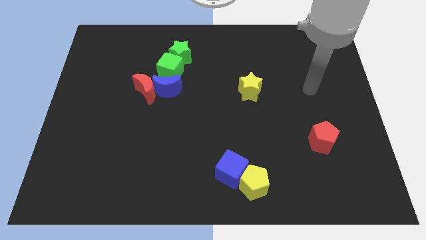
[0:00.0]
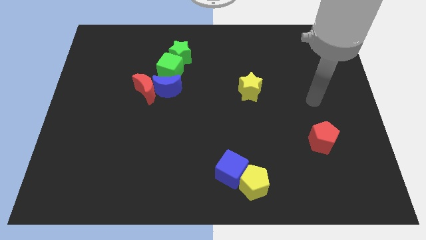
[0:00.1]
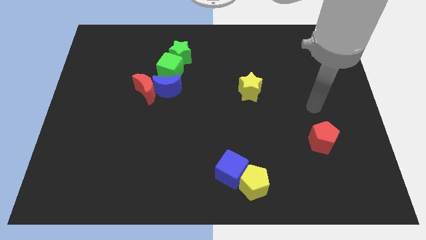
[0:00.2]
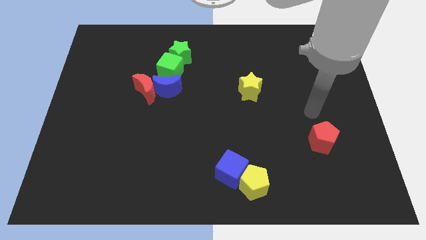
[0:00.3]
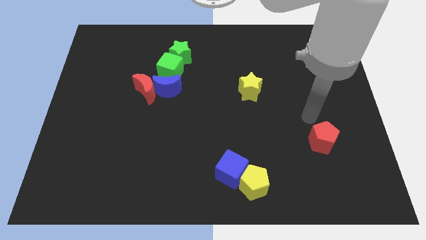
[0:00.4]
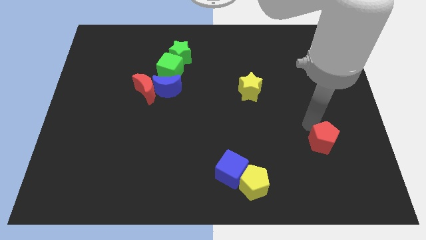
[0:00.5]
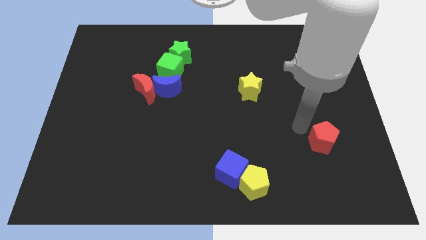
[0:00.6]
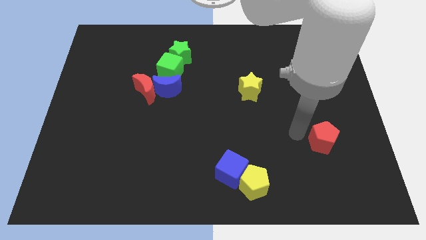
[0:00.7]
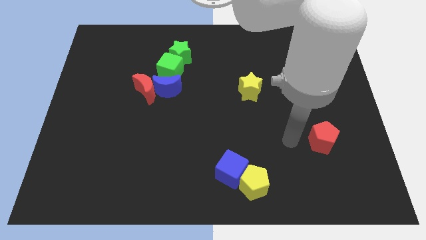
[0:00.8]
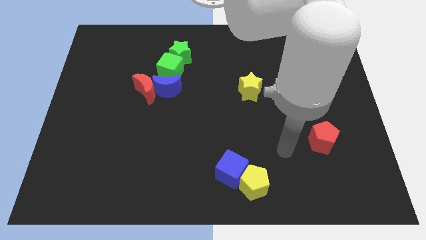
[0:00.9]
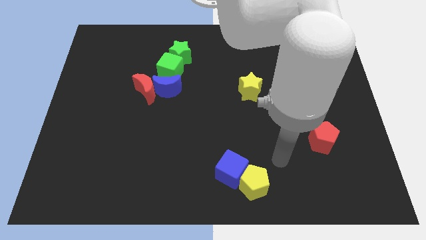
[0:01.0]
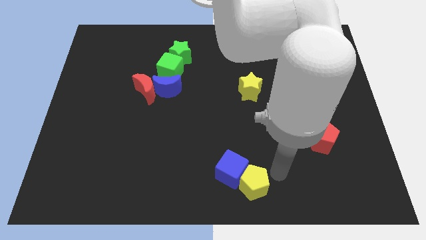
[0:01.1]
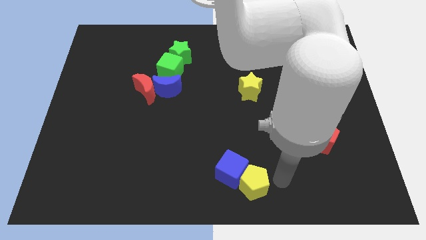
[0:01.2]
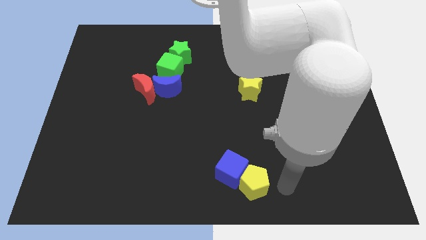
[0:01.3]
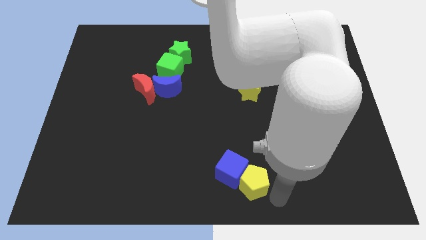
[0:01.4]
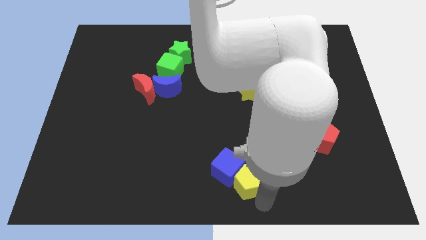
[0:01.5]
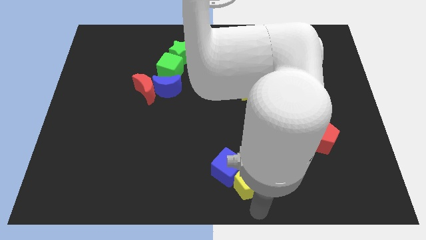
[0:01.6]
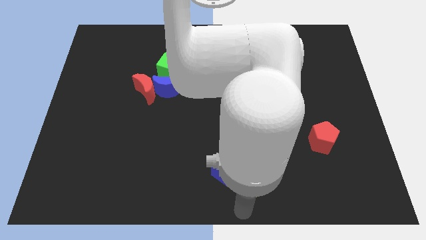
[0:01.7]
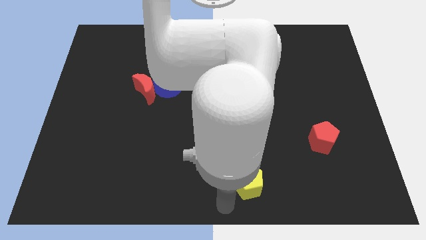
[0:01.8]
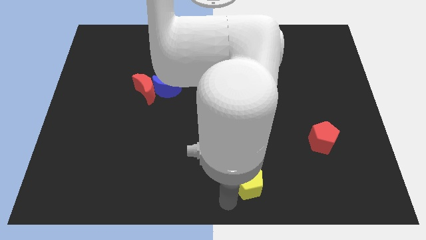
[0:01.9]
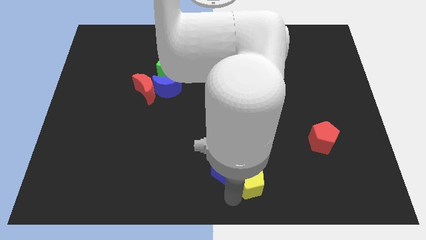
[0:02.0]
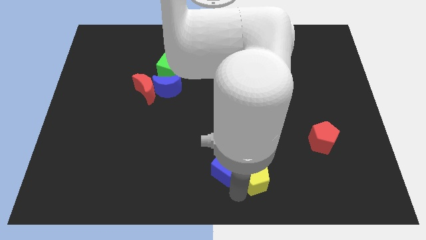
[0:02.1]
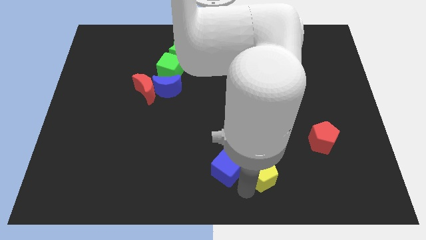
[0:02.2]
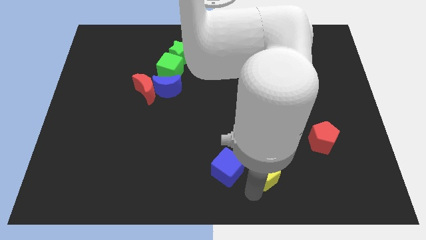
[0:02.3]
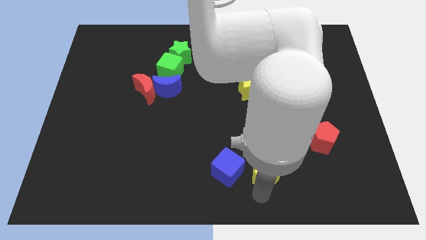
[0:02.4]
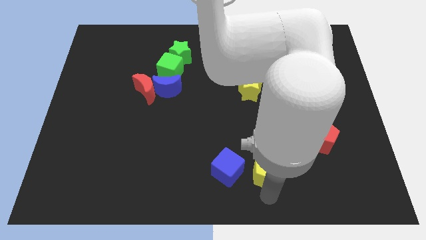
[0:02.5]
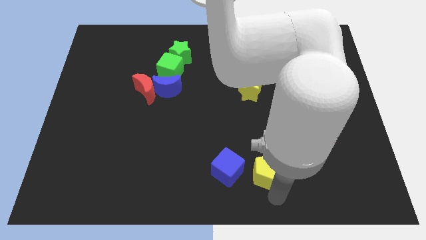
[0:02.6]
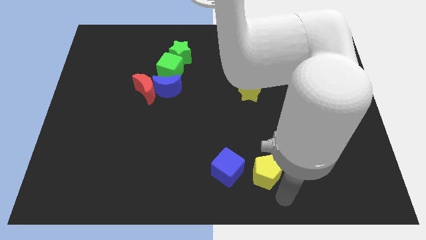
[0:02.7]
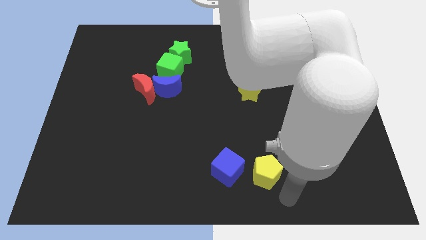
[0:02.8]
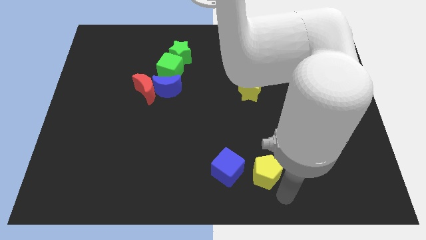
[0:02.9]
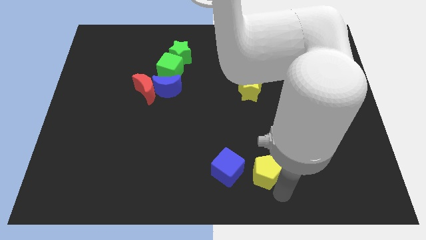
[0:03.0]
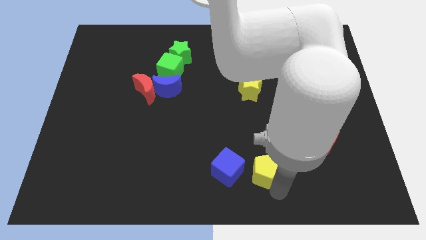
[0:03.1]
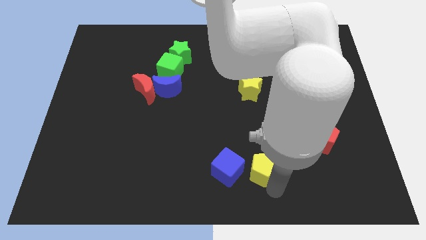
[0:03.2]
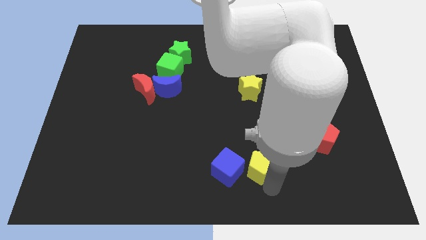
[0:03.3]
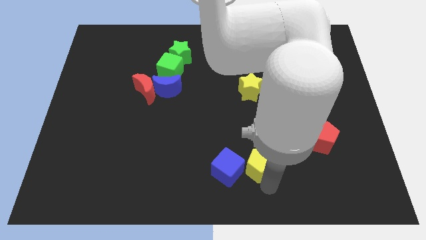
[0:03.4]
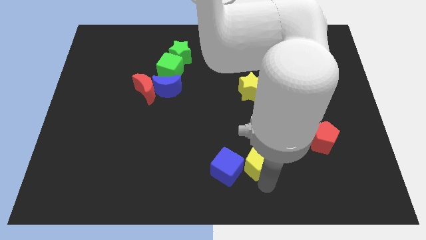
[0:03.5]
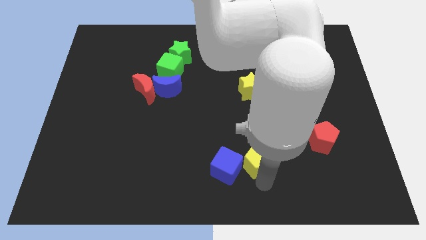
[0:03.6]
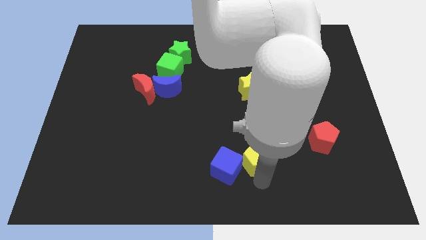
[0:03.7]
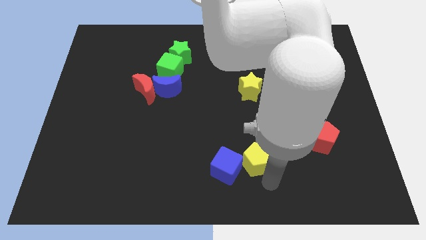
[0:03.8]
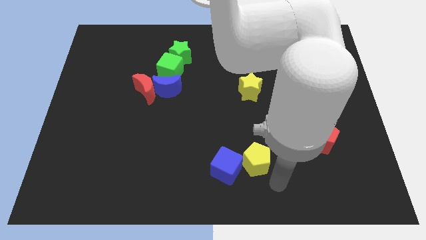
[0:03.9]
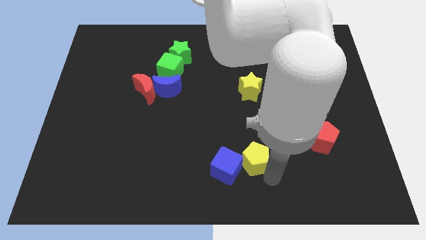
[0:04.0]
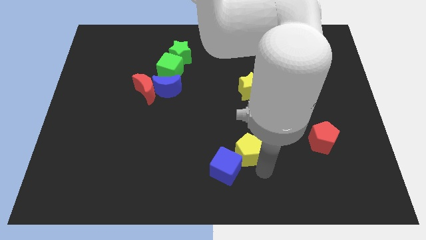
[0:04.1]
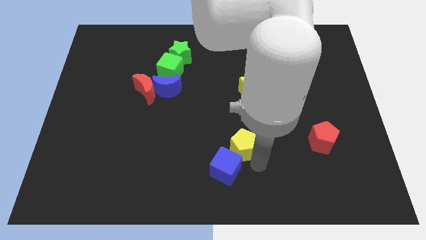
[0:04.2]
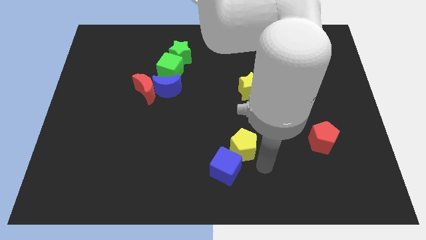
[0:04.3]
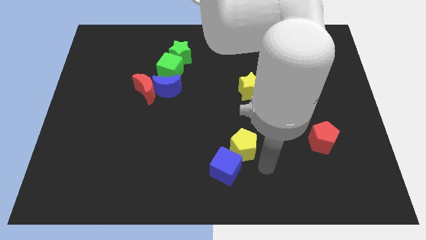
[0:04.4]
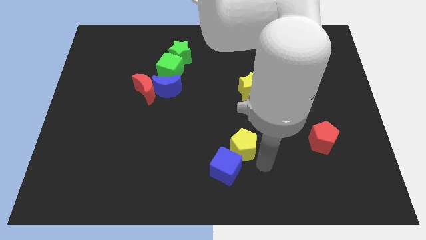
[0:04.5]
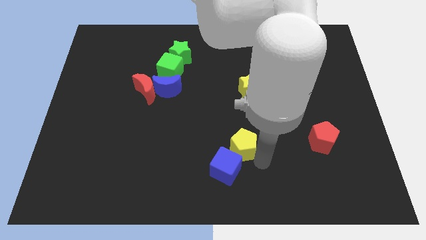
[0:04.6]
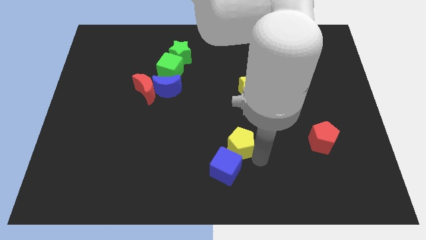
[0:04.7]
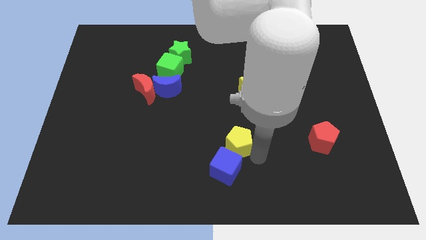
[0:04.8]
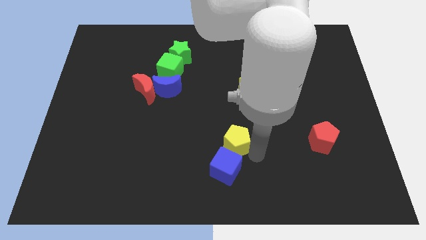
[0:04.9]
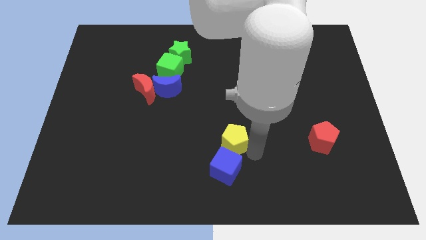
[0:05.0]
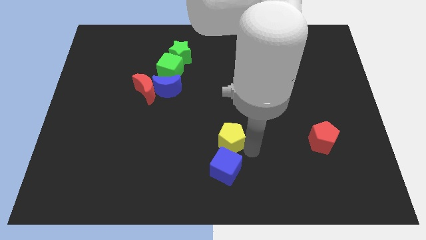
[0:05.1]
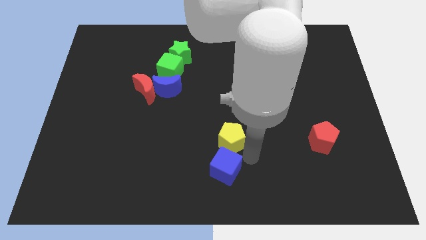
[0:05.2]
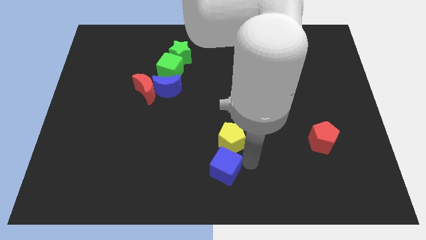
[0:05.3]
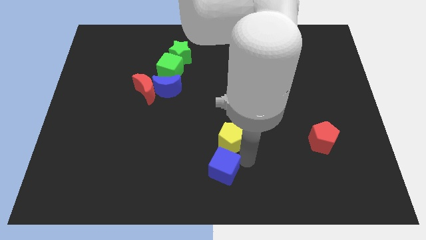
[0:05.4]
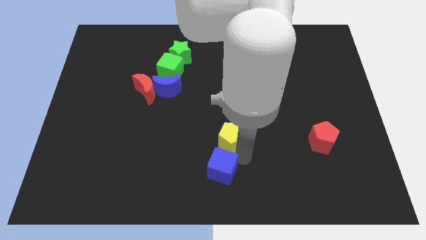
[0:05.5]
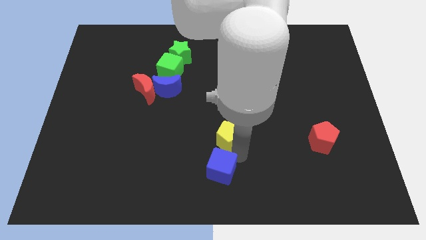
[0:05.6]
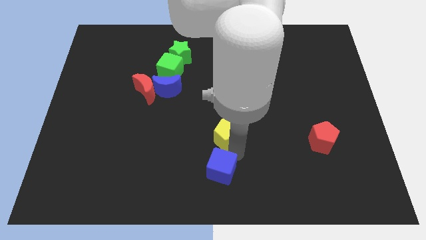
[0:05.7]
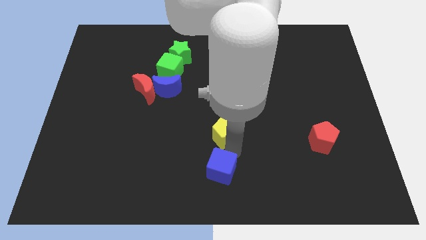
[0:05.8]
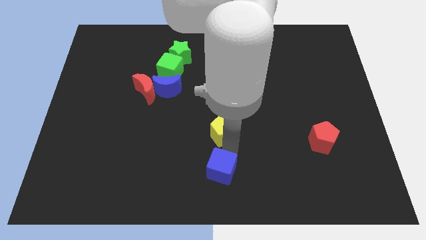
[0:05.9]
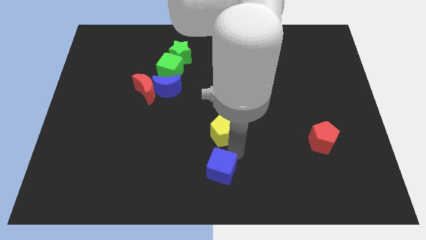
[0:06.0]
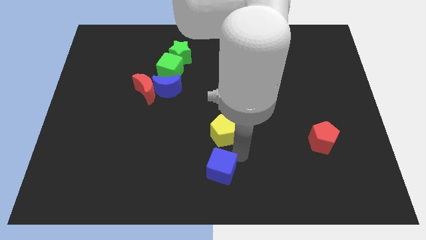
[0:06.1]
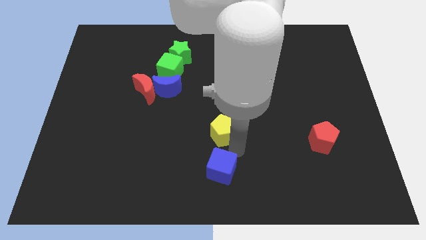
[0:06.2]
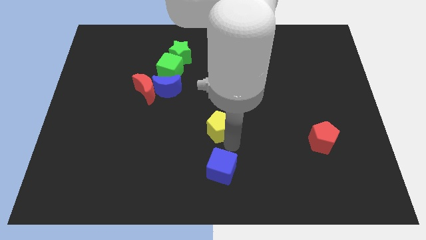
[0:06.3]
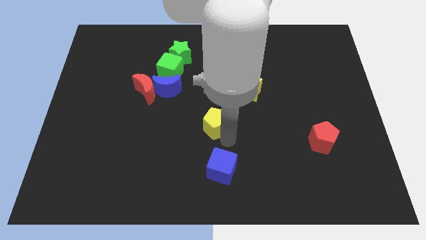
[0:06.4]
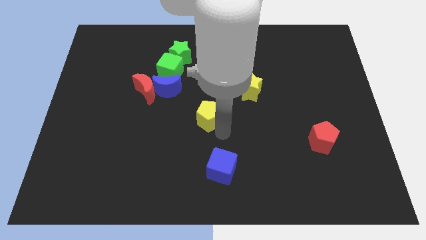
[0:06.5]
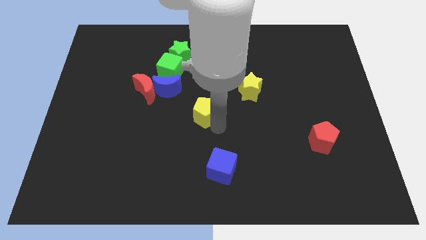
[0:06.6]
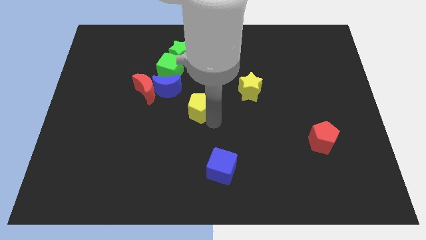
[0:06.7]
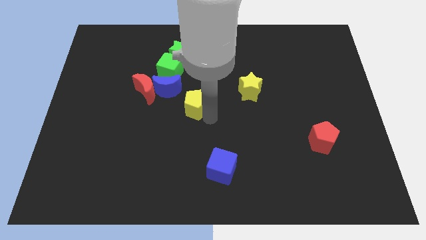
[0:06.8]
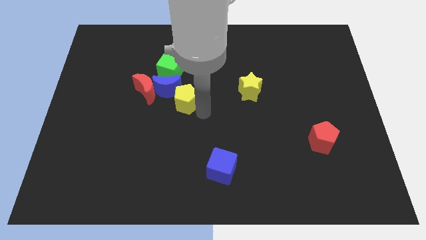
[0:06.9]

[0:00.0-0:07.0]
move the yellow pentagon towards the blue moon
